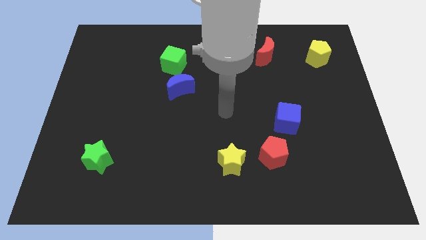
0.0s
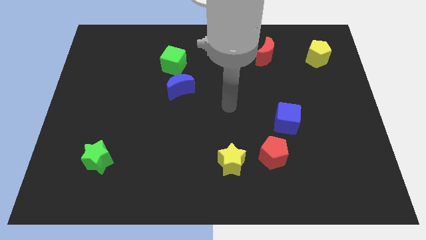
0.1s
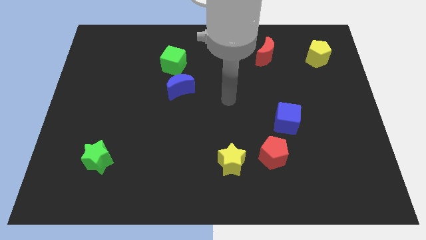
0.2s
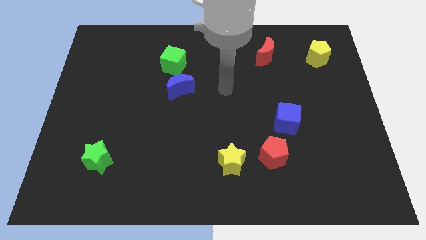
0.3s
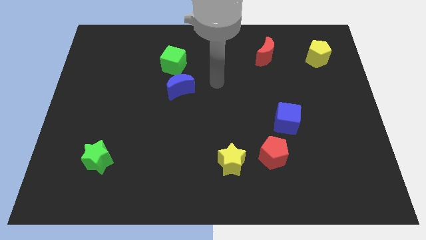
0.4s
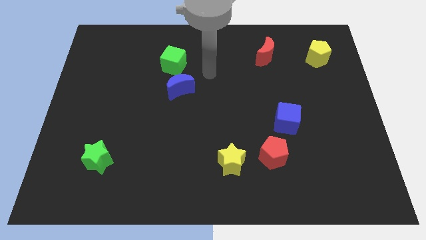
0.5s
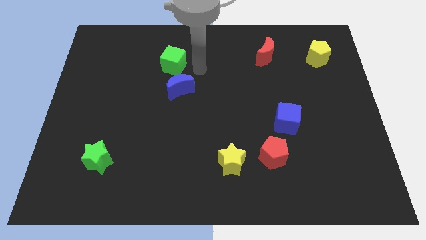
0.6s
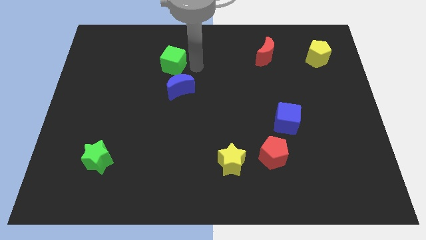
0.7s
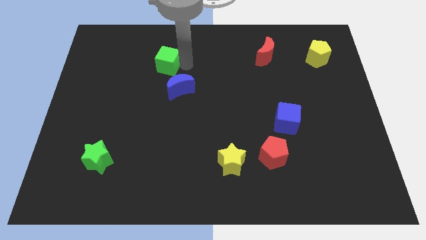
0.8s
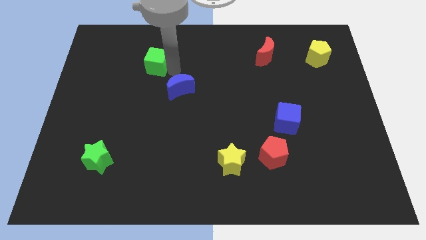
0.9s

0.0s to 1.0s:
pull the blue moon apart from the green cube

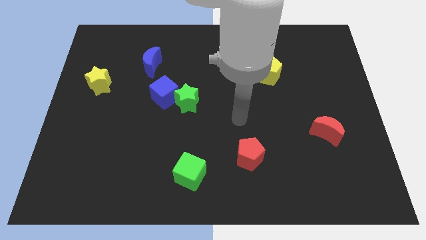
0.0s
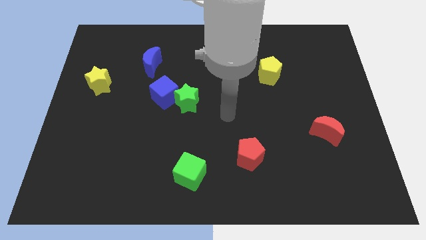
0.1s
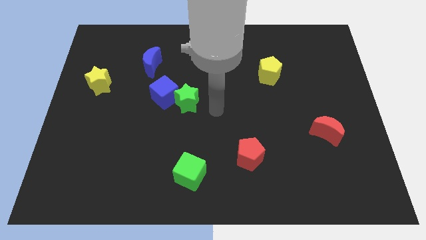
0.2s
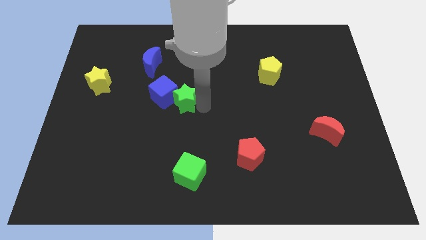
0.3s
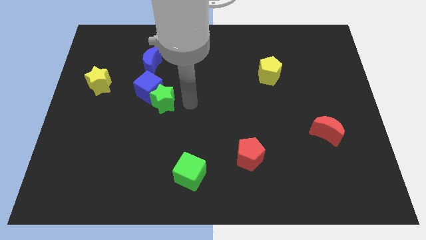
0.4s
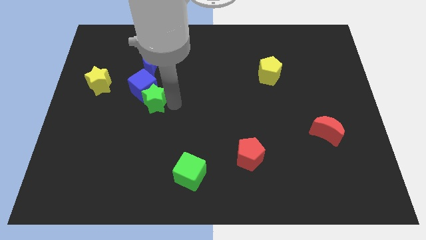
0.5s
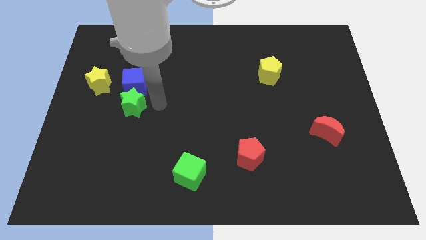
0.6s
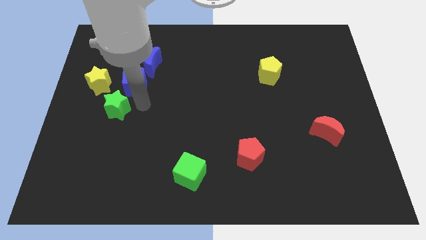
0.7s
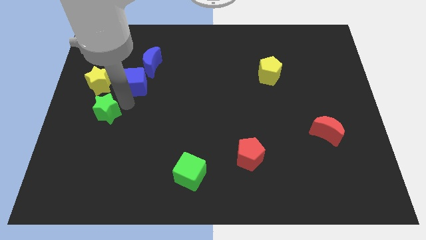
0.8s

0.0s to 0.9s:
move the blue cube away from the green star

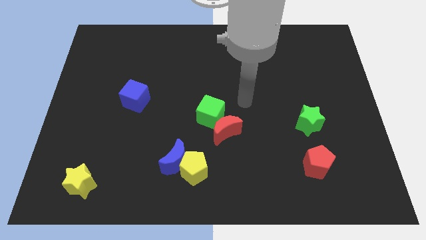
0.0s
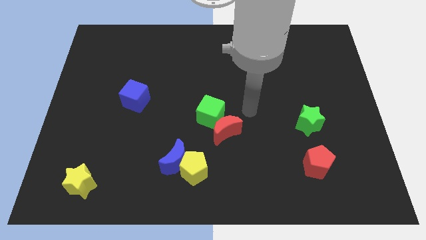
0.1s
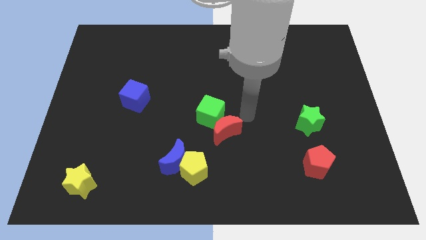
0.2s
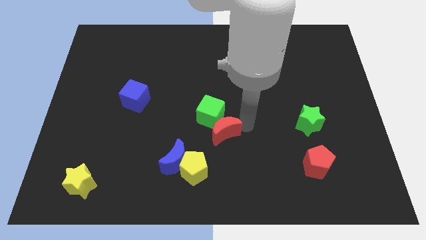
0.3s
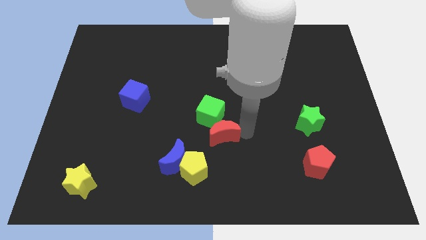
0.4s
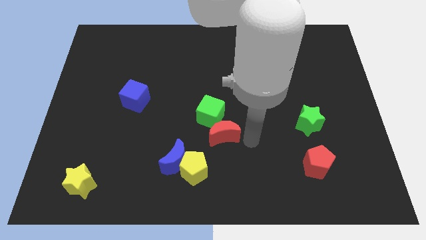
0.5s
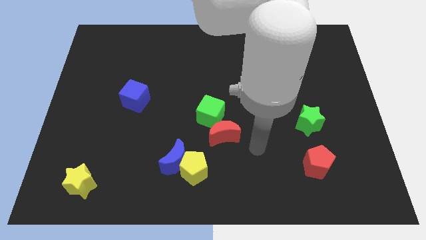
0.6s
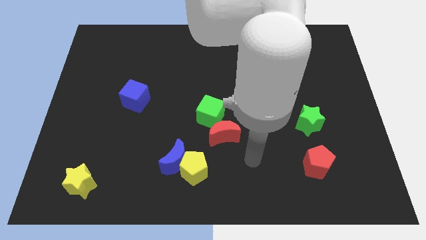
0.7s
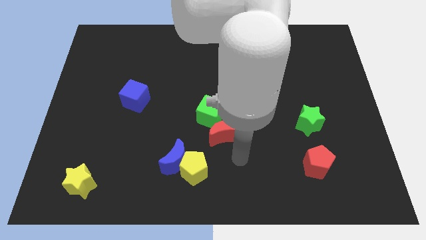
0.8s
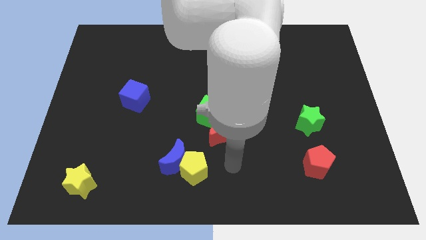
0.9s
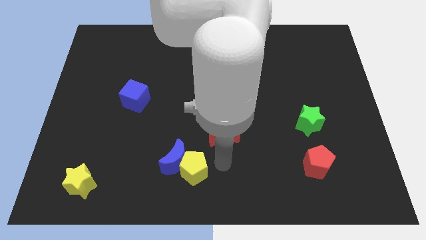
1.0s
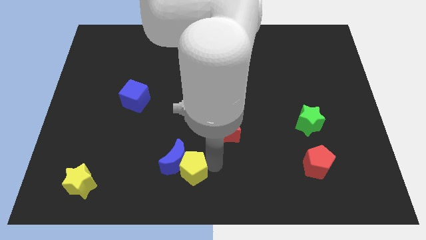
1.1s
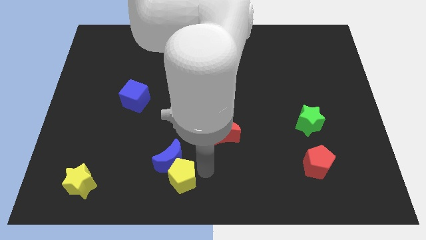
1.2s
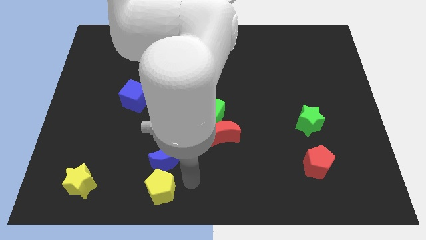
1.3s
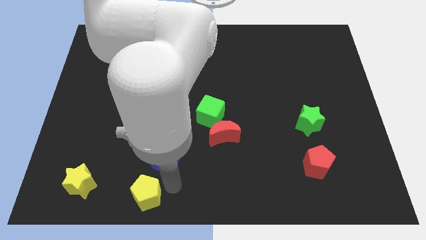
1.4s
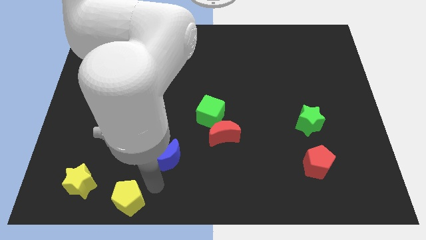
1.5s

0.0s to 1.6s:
pull the blue moon apart from the yellow pentagon

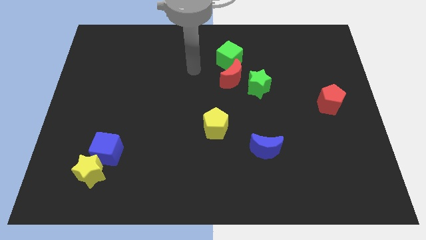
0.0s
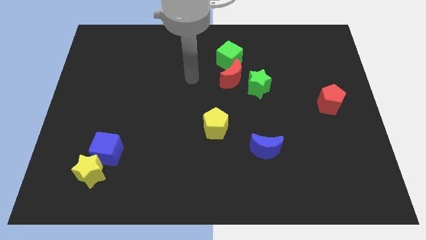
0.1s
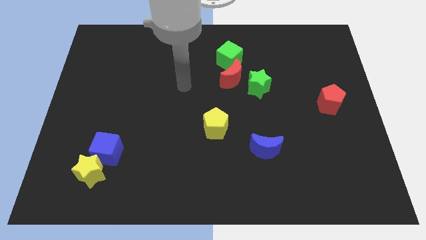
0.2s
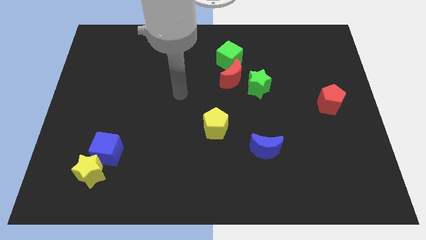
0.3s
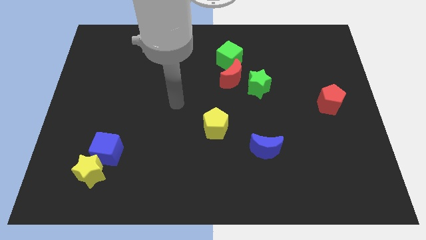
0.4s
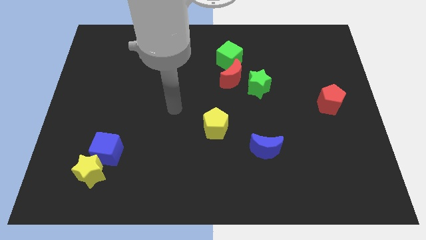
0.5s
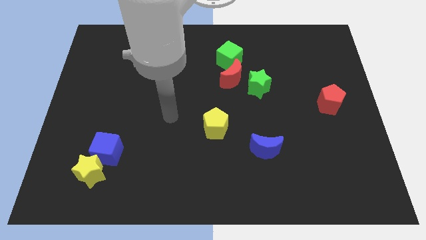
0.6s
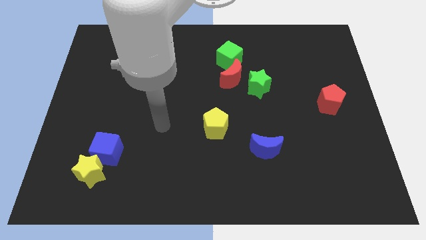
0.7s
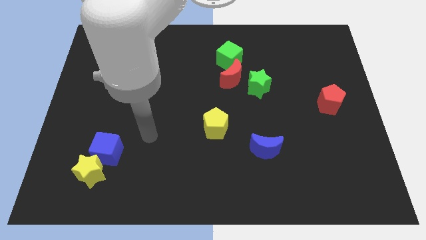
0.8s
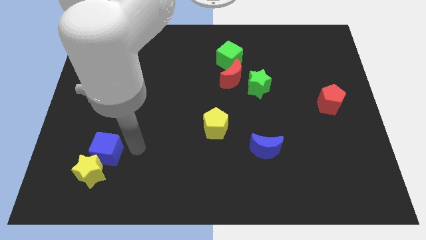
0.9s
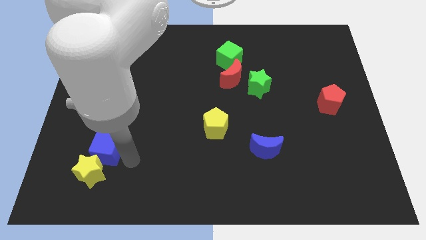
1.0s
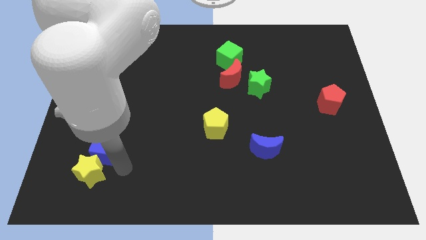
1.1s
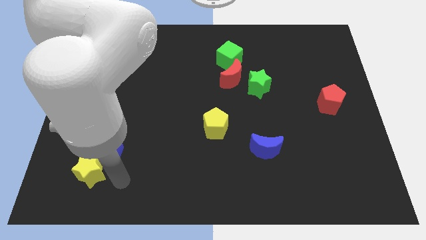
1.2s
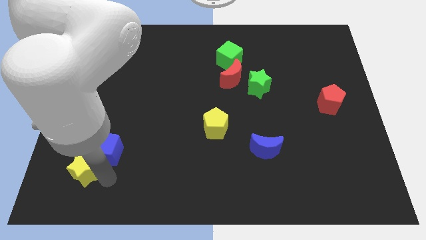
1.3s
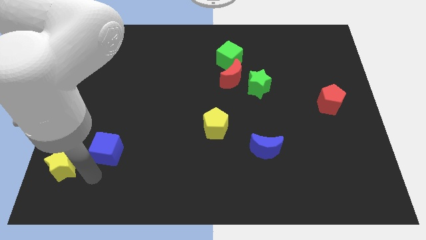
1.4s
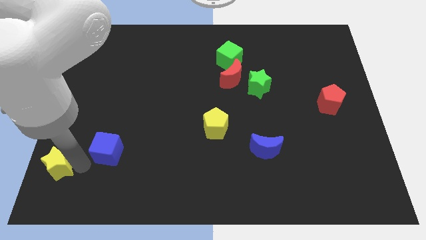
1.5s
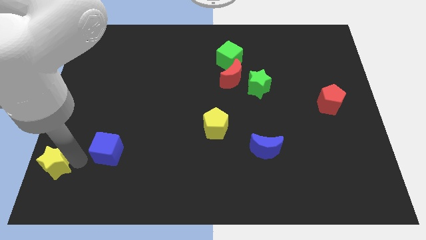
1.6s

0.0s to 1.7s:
move the blue cube away from the yellow star

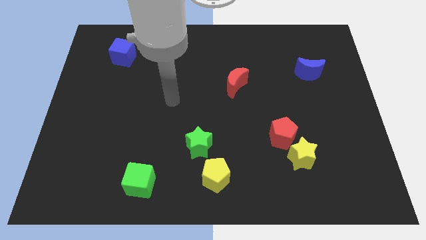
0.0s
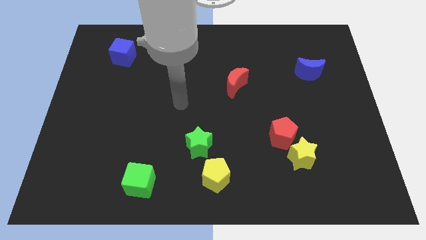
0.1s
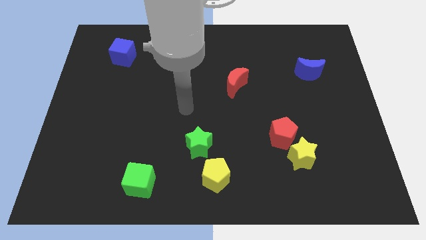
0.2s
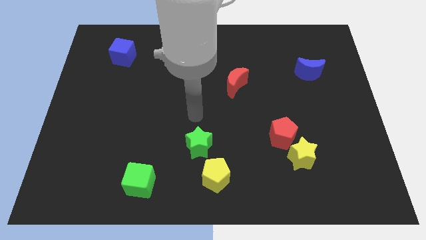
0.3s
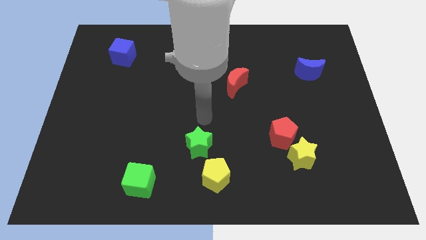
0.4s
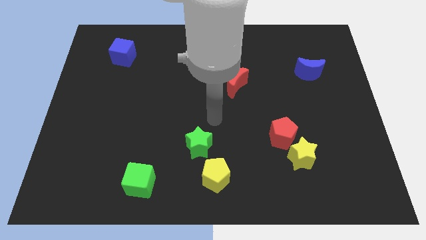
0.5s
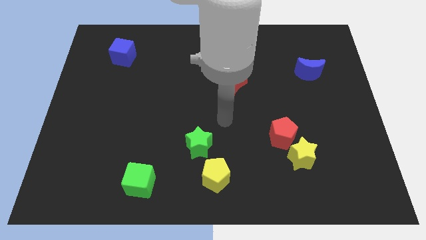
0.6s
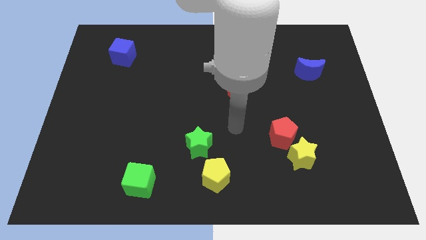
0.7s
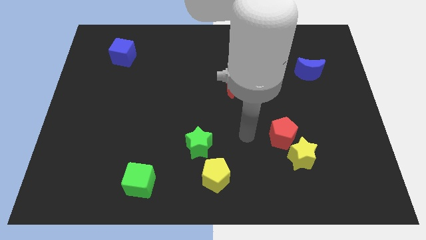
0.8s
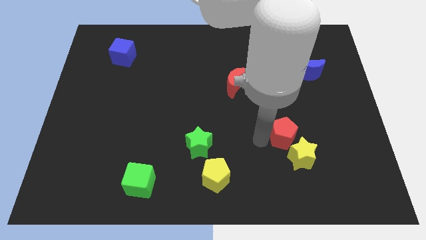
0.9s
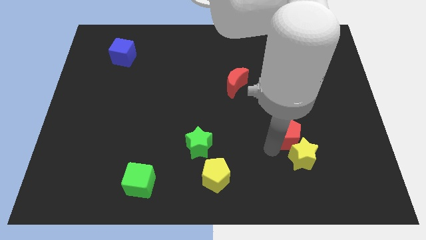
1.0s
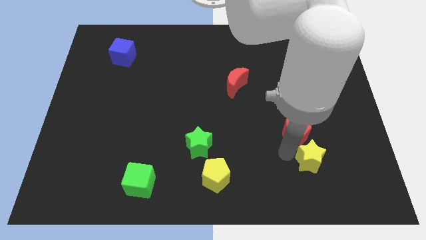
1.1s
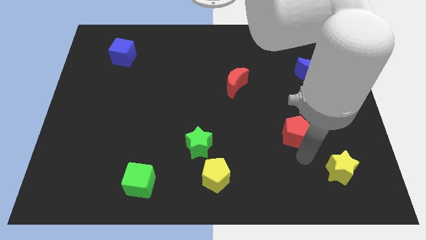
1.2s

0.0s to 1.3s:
separate the red pentagon from the yellow star

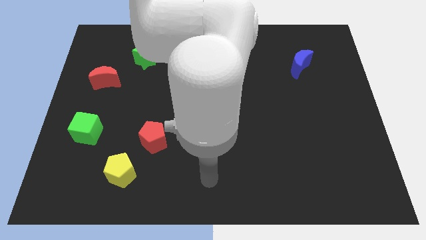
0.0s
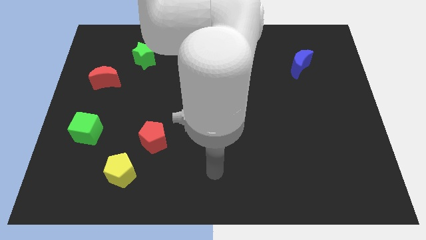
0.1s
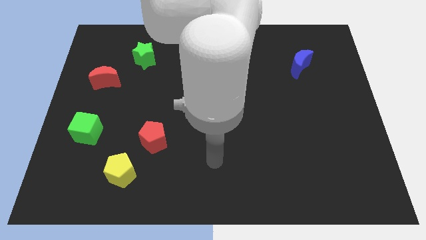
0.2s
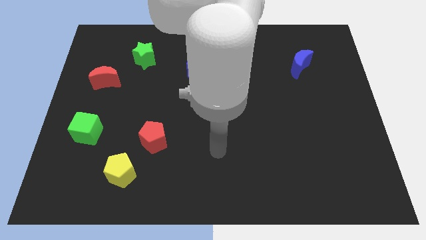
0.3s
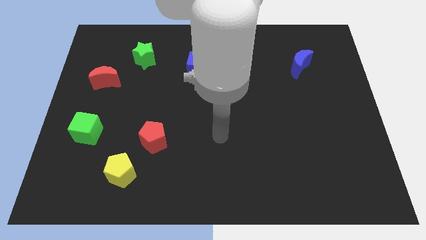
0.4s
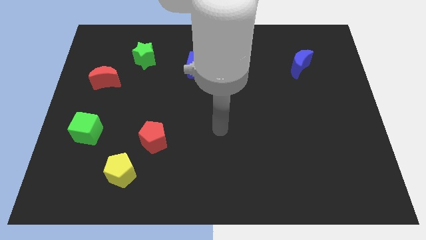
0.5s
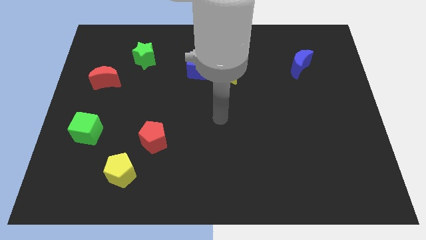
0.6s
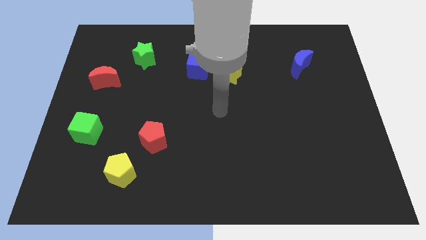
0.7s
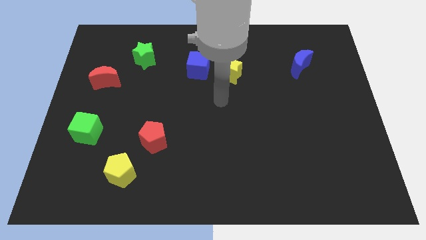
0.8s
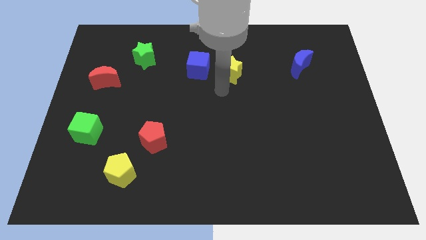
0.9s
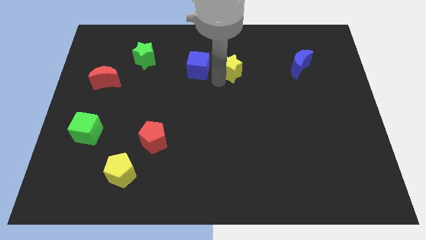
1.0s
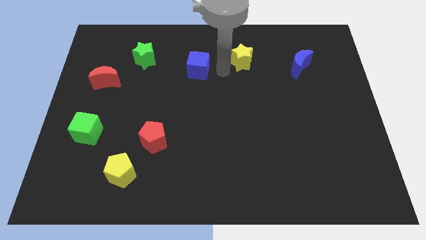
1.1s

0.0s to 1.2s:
separate the blue cube from the yellow star

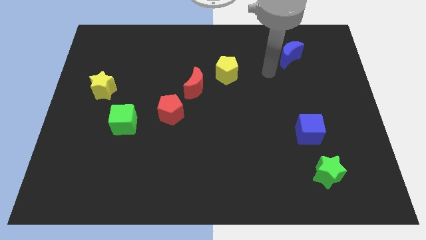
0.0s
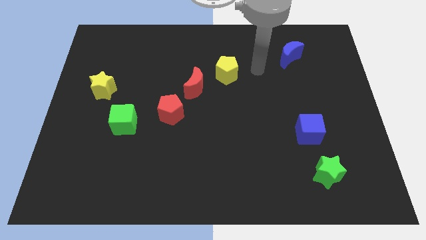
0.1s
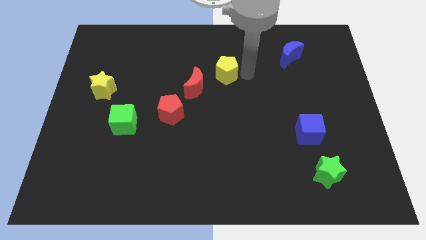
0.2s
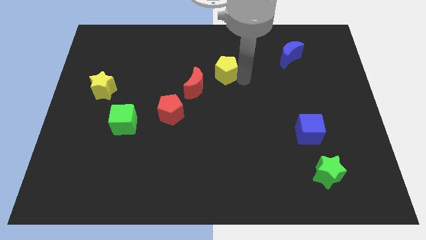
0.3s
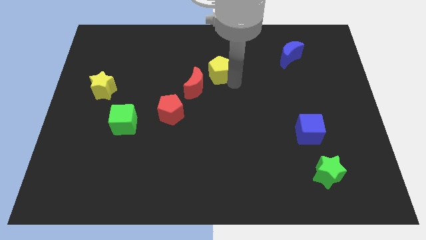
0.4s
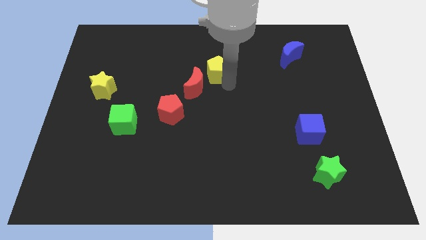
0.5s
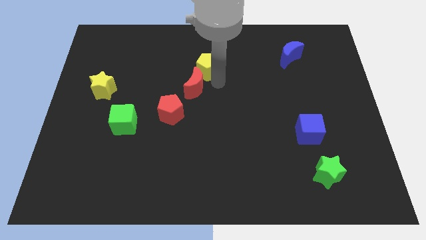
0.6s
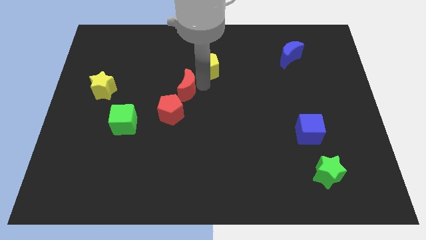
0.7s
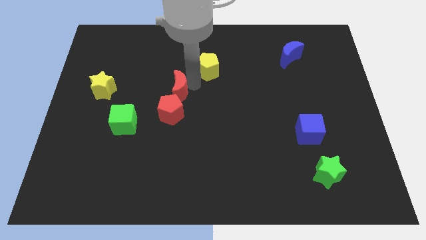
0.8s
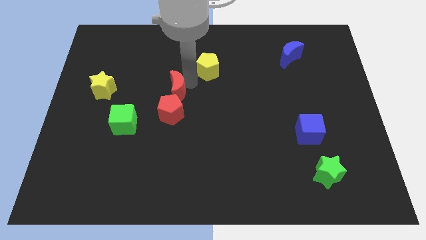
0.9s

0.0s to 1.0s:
move the yellow pentagon away from the red moon

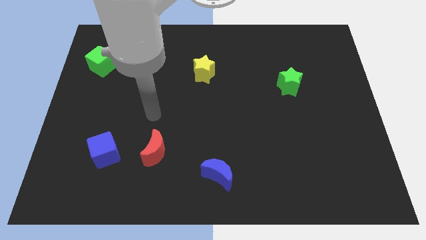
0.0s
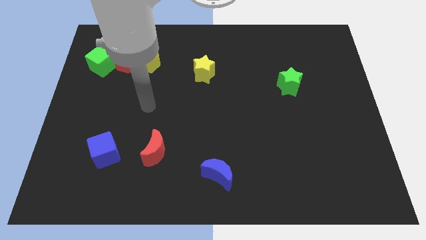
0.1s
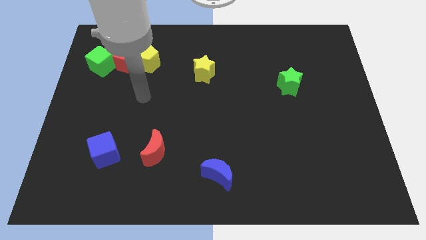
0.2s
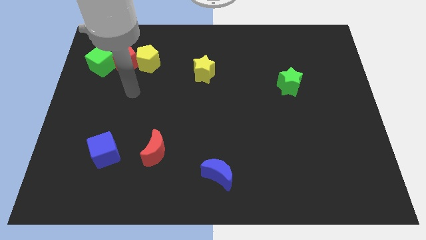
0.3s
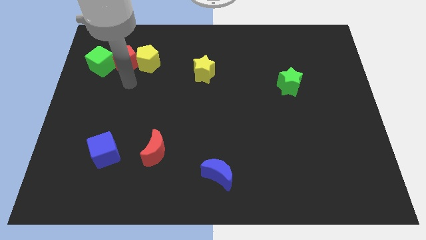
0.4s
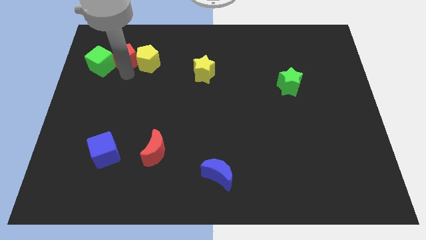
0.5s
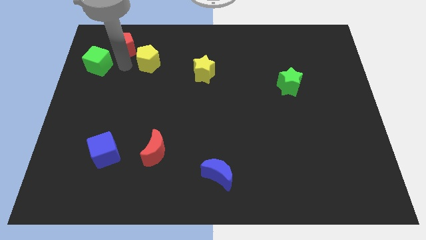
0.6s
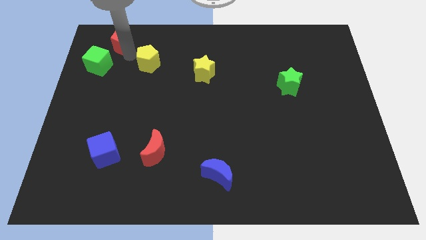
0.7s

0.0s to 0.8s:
separate the yellow pentagon from the red pentagon

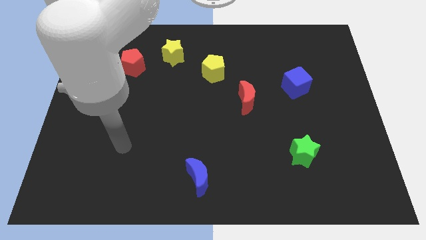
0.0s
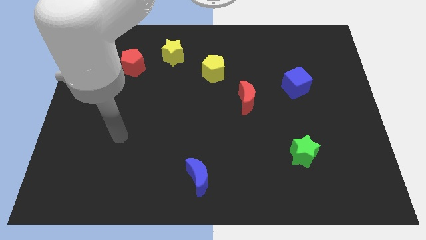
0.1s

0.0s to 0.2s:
pull the green cube apart from the red pentagon
